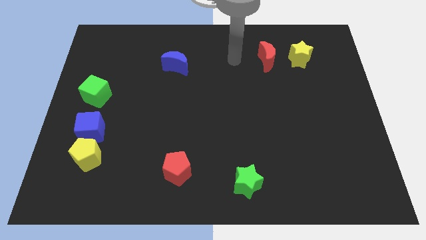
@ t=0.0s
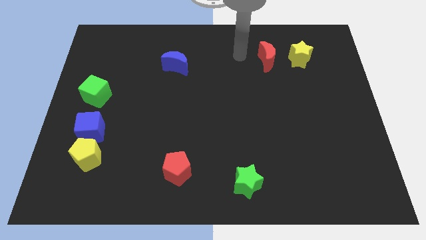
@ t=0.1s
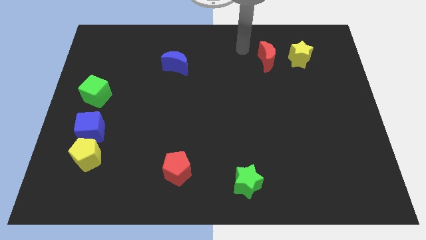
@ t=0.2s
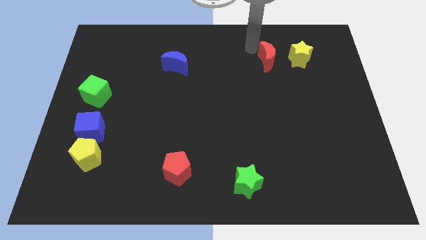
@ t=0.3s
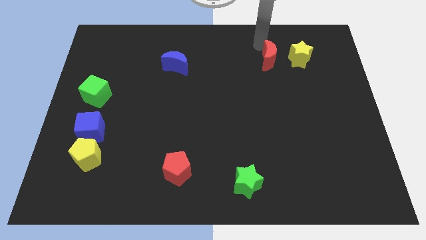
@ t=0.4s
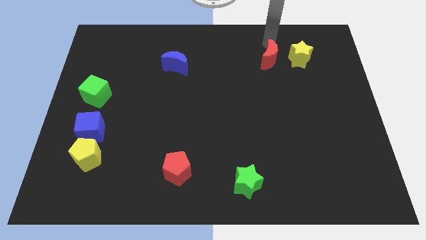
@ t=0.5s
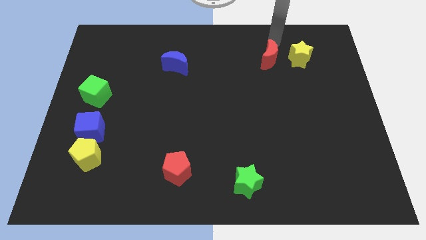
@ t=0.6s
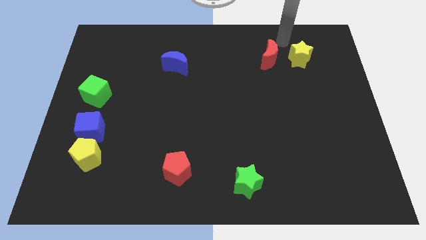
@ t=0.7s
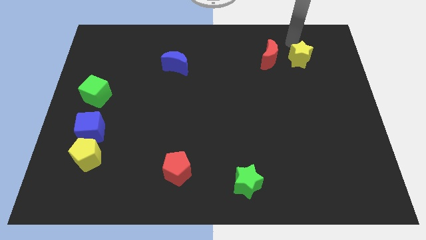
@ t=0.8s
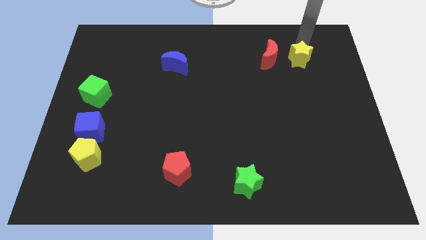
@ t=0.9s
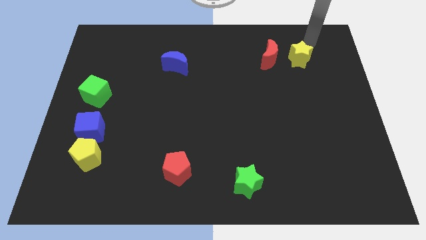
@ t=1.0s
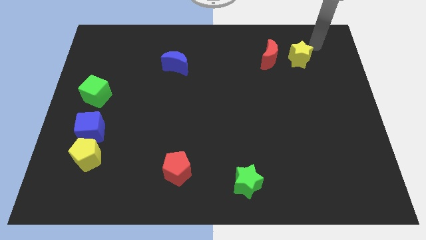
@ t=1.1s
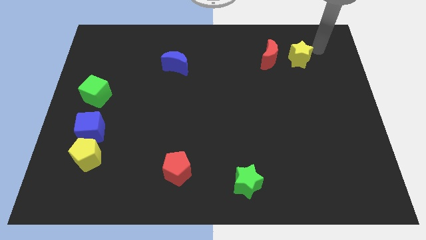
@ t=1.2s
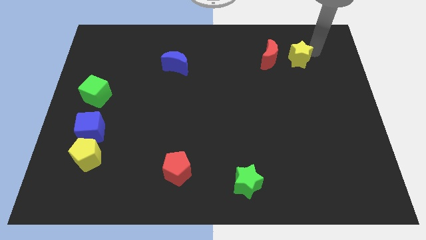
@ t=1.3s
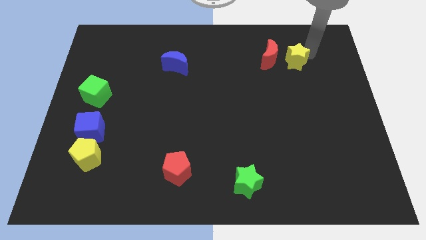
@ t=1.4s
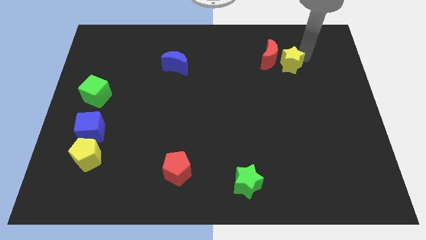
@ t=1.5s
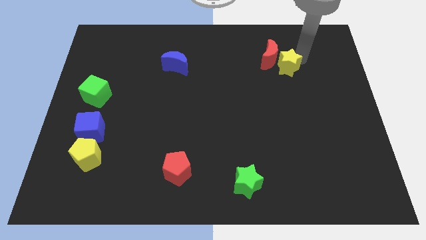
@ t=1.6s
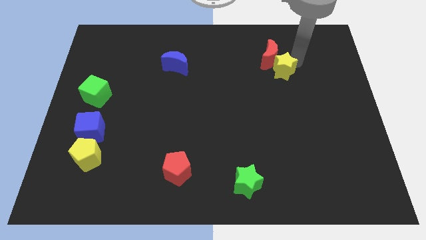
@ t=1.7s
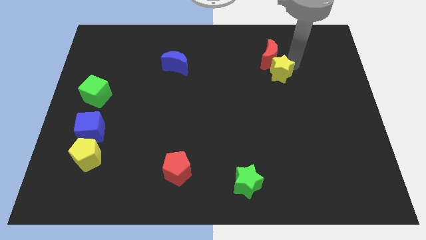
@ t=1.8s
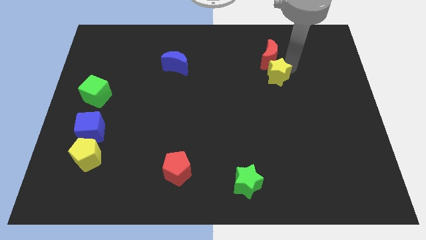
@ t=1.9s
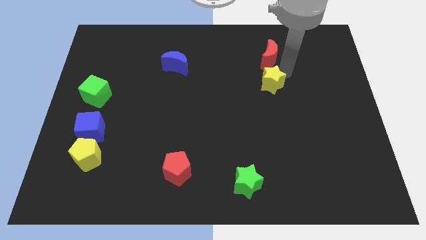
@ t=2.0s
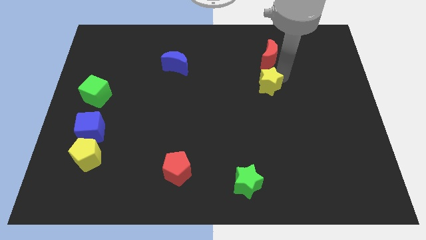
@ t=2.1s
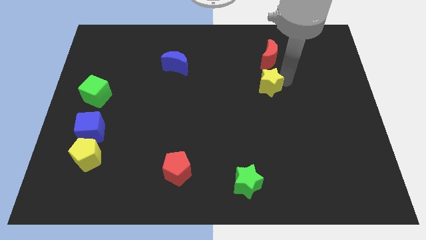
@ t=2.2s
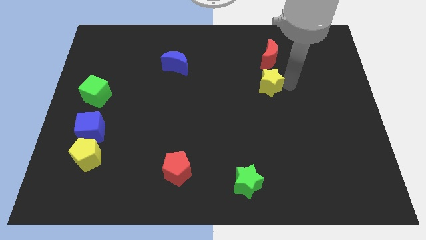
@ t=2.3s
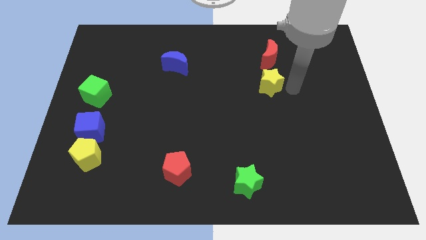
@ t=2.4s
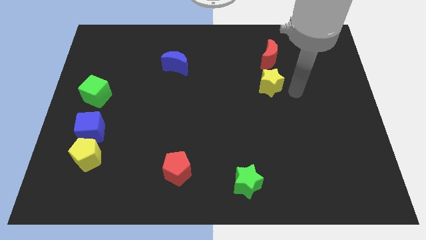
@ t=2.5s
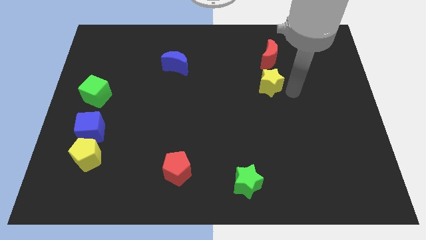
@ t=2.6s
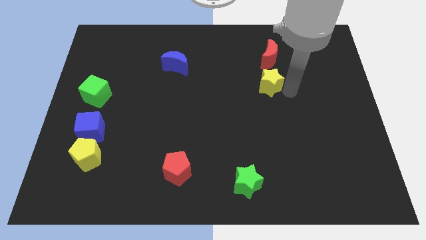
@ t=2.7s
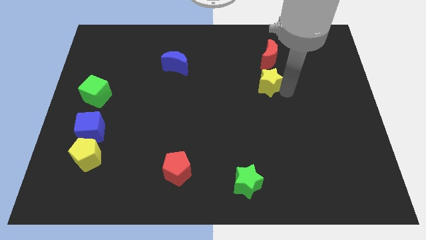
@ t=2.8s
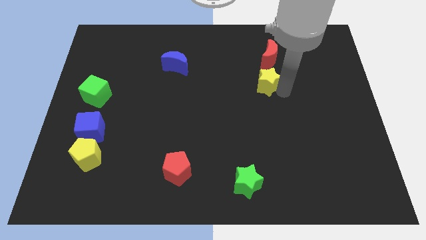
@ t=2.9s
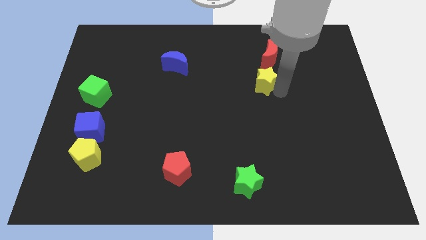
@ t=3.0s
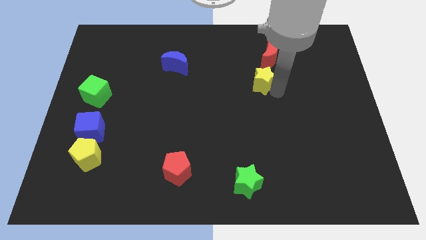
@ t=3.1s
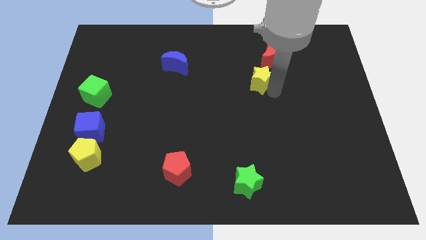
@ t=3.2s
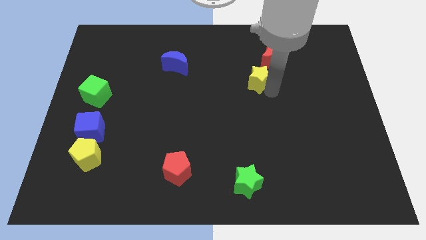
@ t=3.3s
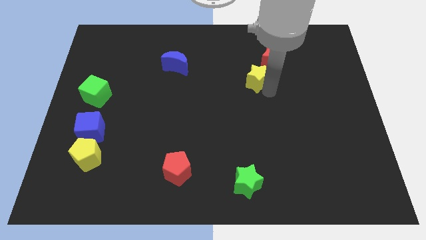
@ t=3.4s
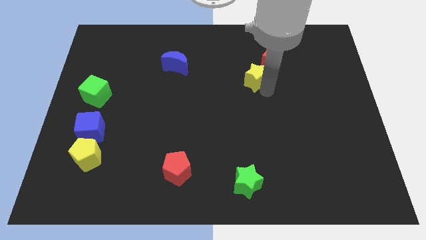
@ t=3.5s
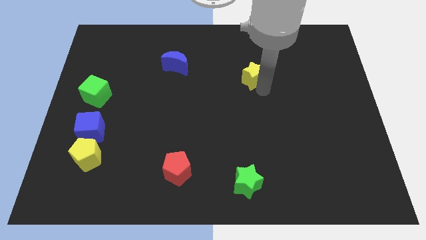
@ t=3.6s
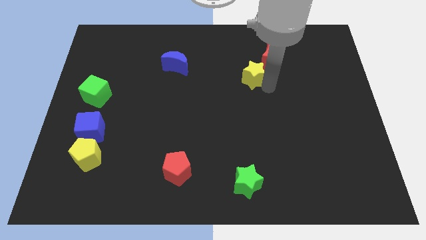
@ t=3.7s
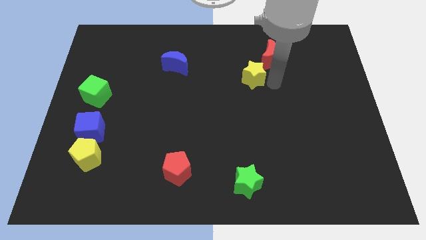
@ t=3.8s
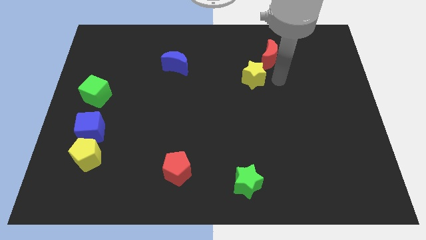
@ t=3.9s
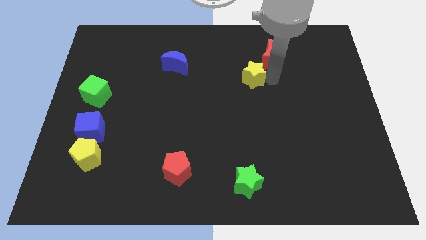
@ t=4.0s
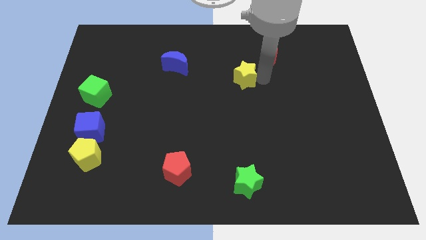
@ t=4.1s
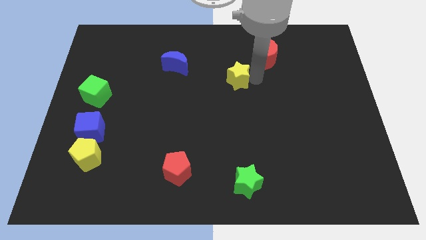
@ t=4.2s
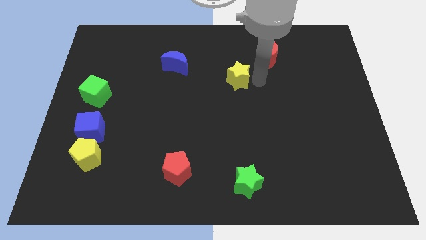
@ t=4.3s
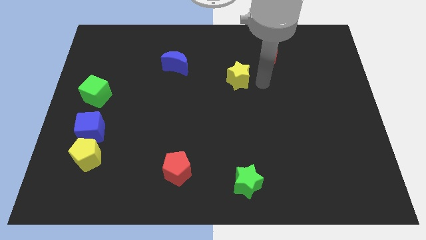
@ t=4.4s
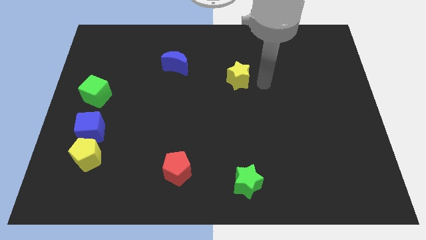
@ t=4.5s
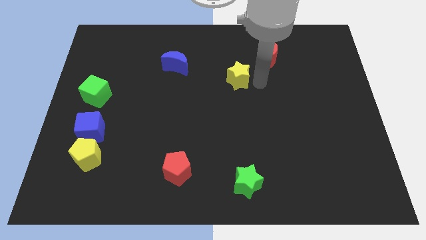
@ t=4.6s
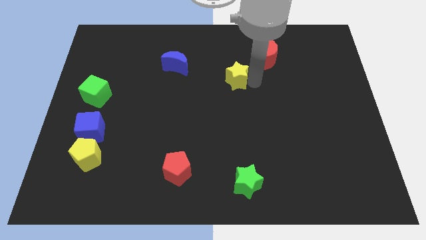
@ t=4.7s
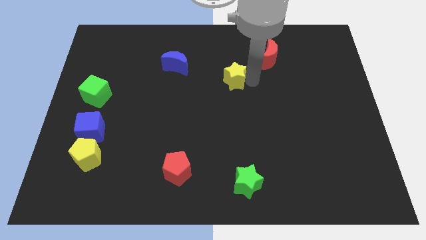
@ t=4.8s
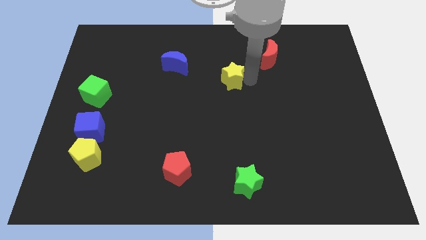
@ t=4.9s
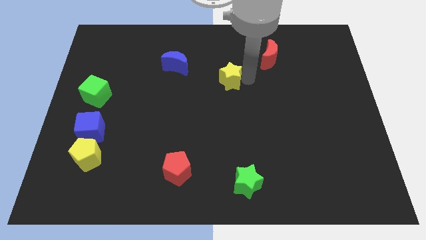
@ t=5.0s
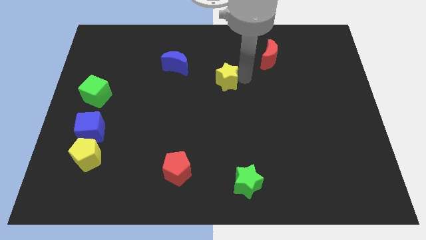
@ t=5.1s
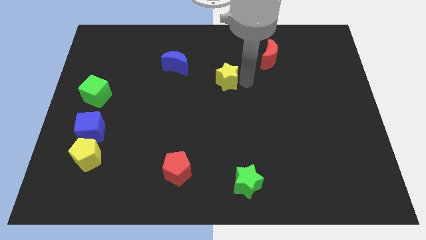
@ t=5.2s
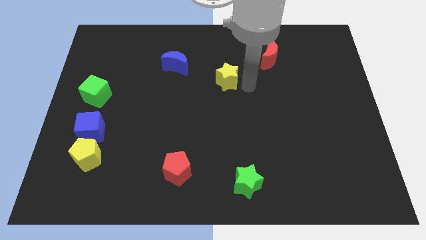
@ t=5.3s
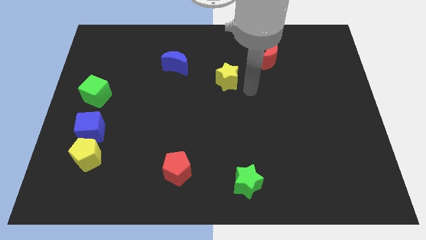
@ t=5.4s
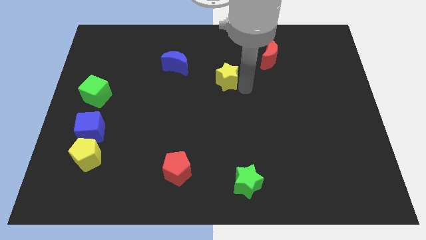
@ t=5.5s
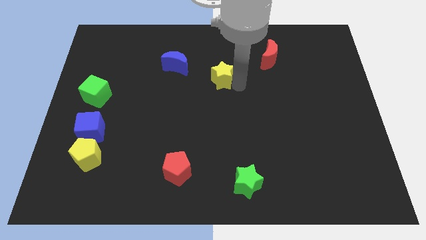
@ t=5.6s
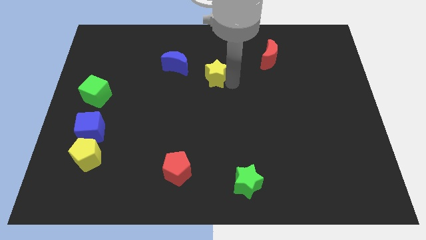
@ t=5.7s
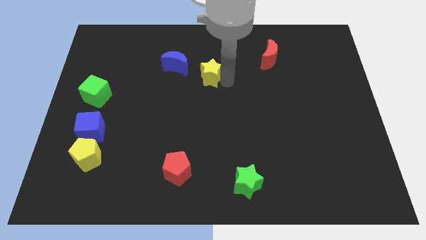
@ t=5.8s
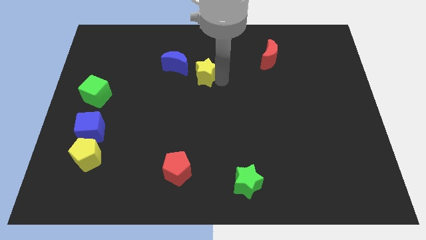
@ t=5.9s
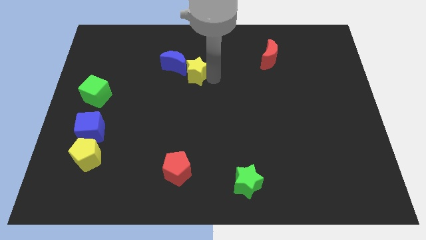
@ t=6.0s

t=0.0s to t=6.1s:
slide the yellow star next to the blue moon

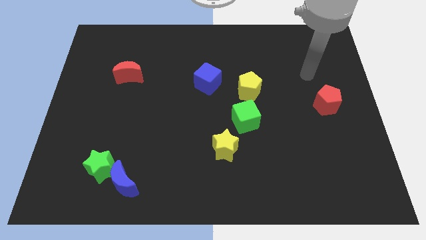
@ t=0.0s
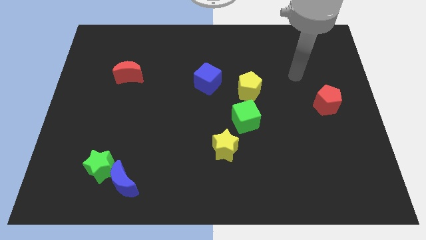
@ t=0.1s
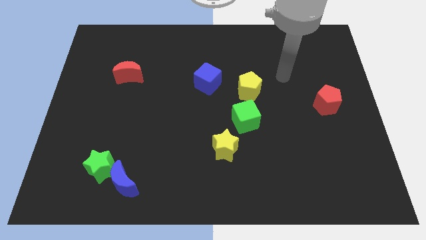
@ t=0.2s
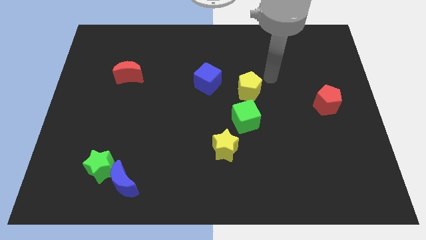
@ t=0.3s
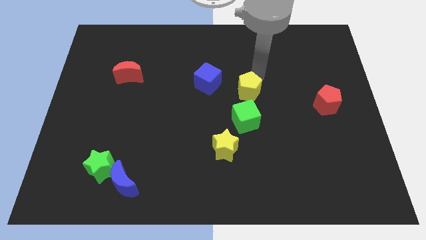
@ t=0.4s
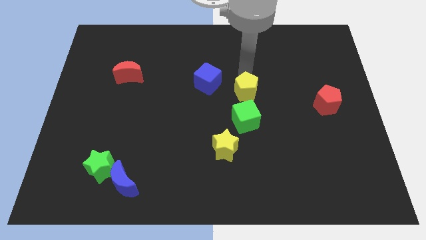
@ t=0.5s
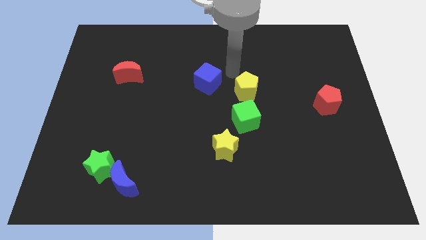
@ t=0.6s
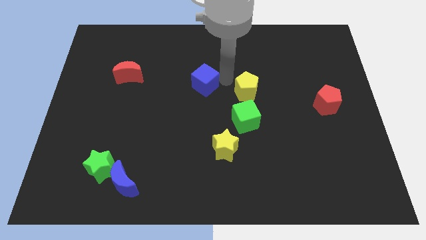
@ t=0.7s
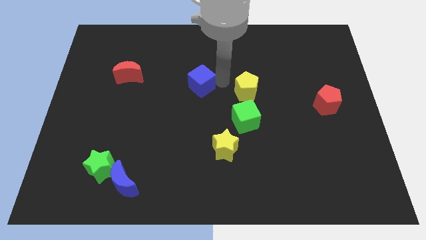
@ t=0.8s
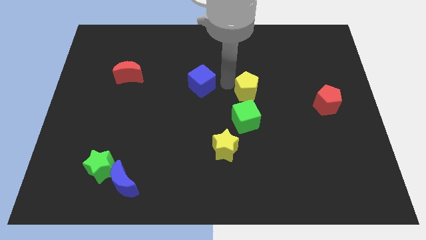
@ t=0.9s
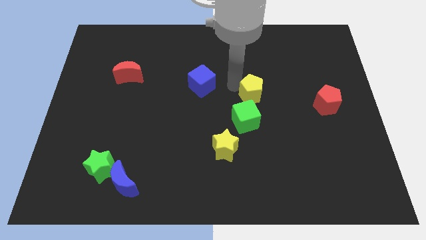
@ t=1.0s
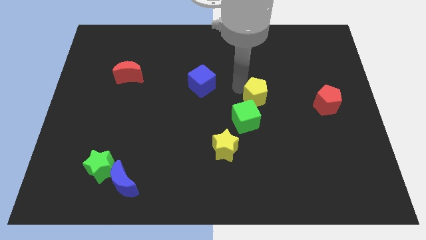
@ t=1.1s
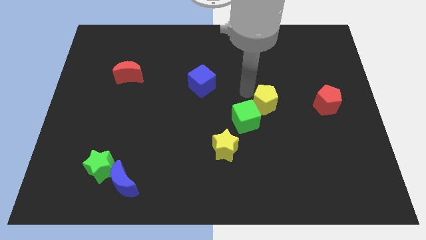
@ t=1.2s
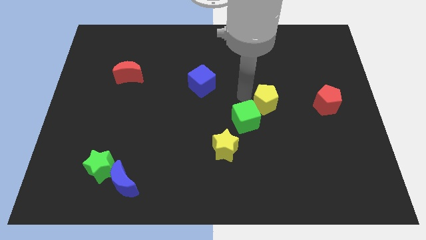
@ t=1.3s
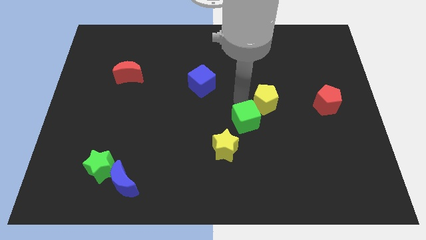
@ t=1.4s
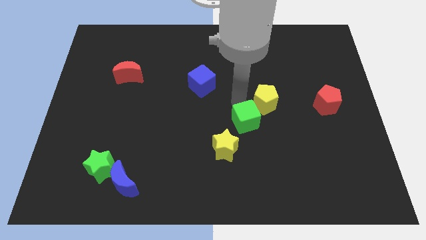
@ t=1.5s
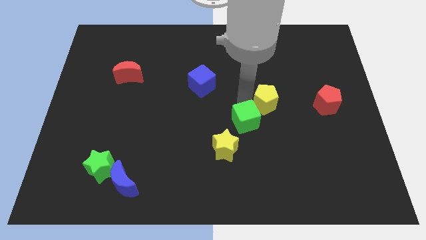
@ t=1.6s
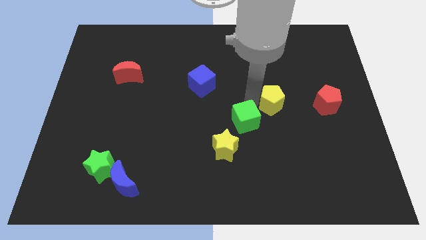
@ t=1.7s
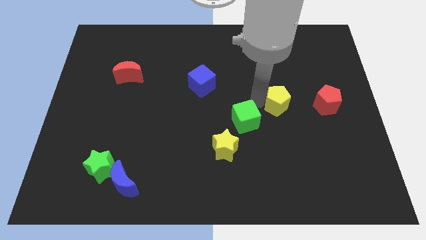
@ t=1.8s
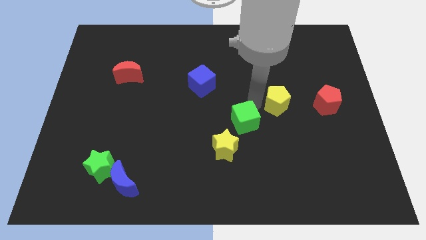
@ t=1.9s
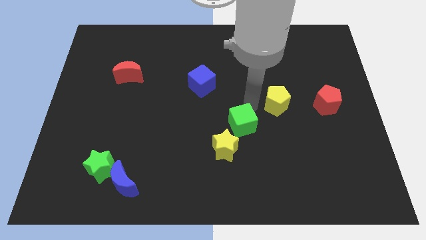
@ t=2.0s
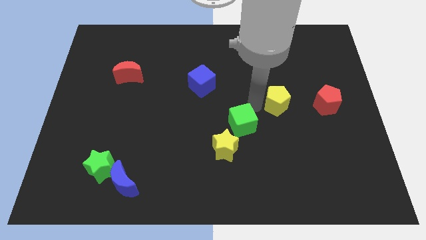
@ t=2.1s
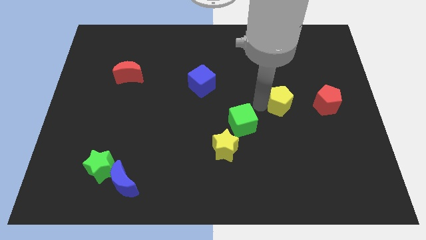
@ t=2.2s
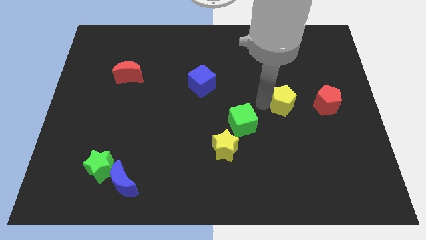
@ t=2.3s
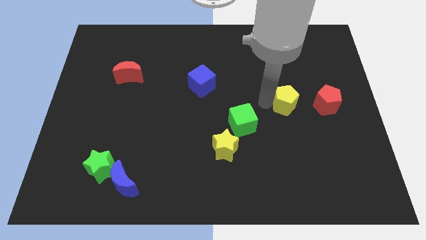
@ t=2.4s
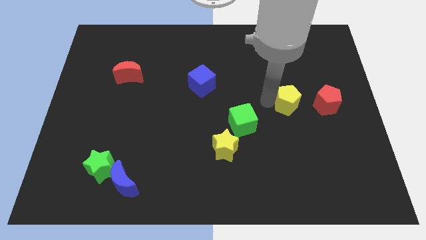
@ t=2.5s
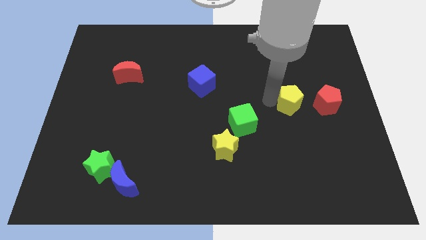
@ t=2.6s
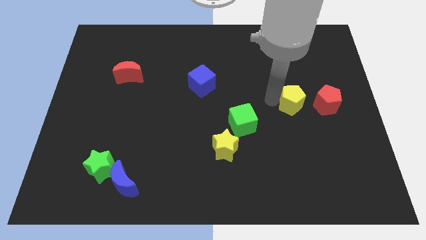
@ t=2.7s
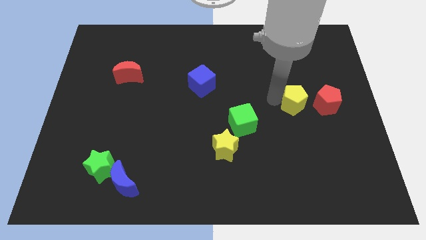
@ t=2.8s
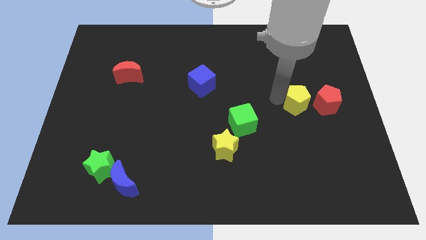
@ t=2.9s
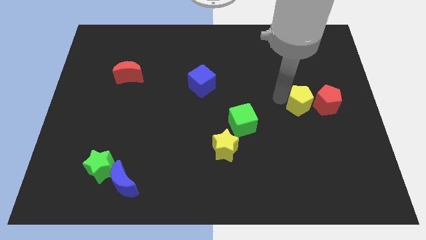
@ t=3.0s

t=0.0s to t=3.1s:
move the yellow pentagon next to the red pentagon
